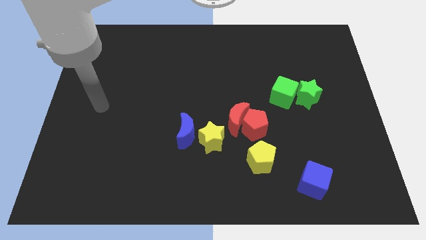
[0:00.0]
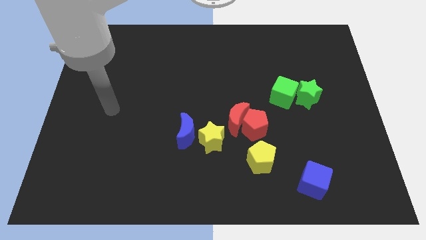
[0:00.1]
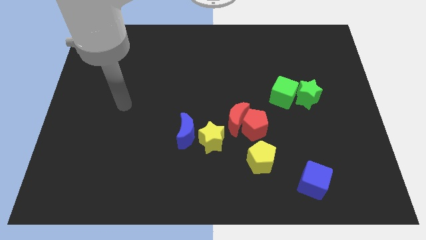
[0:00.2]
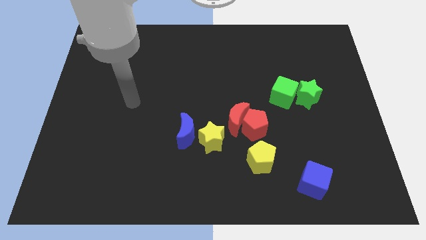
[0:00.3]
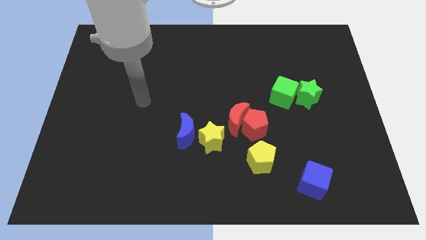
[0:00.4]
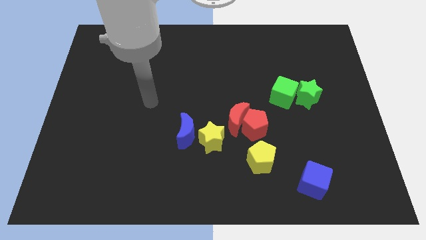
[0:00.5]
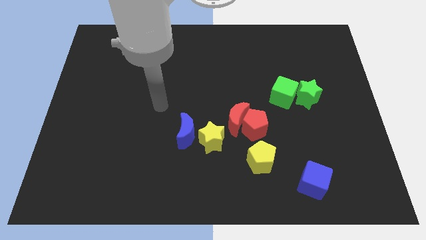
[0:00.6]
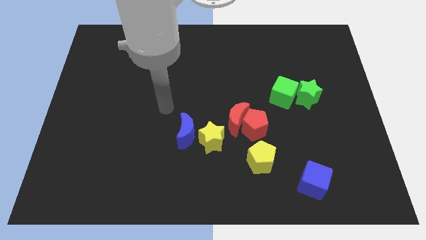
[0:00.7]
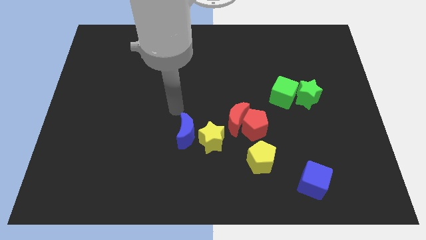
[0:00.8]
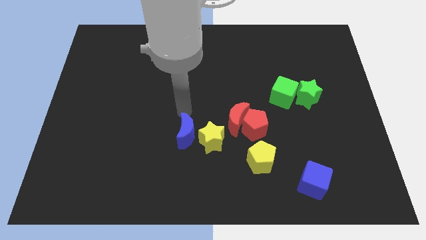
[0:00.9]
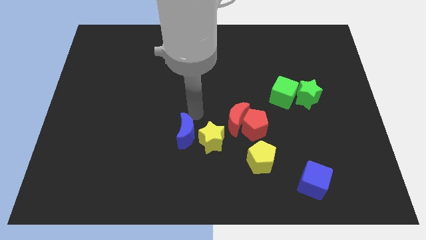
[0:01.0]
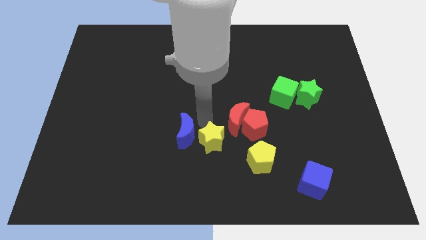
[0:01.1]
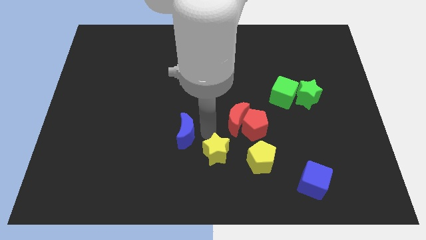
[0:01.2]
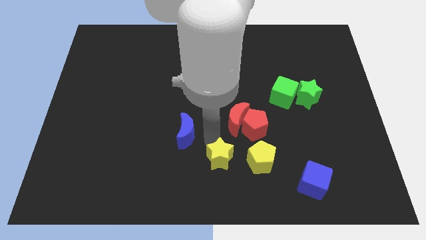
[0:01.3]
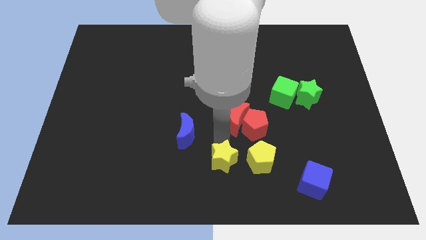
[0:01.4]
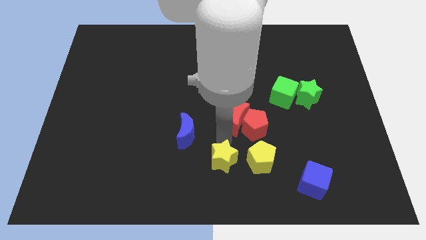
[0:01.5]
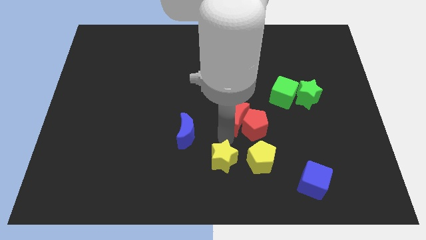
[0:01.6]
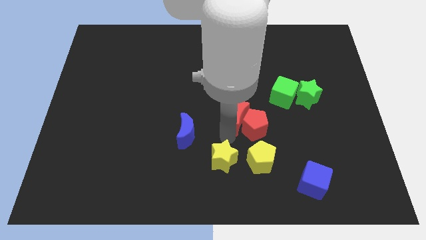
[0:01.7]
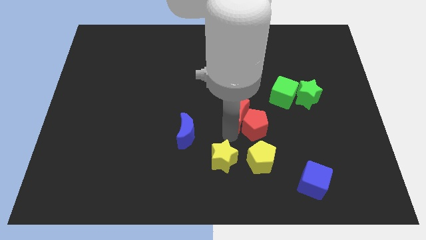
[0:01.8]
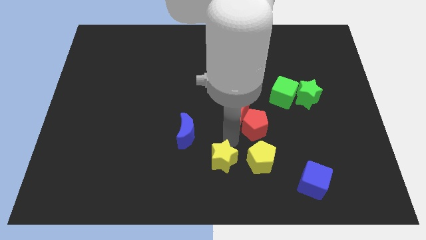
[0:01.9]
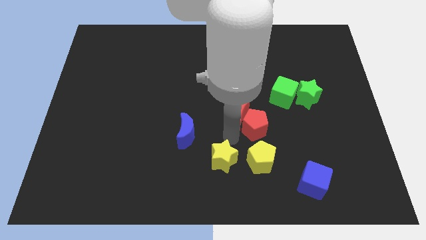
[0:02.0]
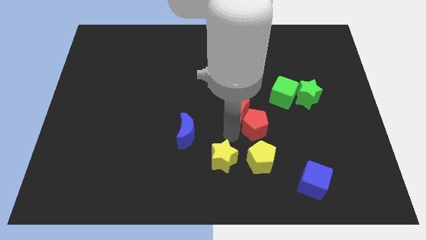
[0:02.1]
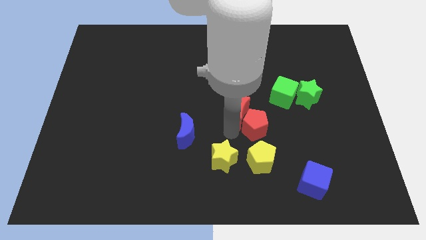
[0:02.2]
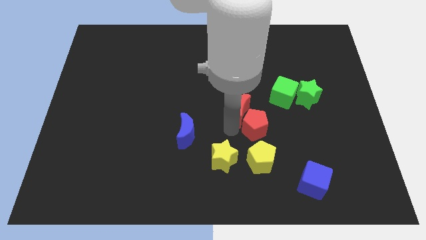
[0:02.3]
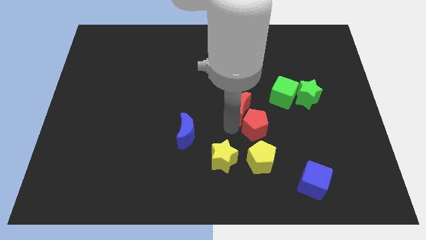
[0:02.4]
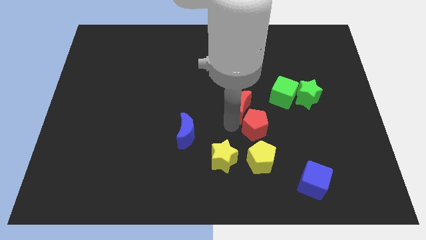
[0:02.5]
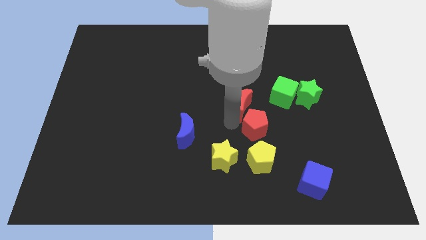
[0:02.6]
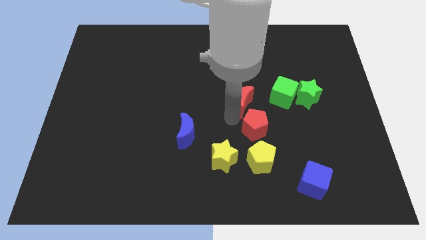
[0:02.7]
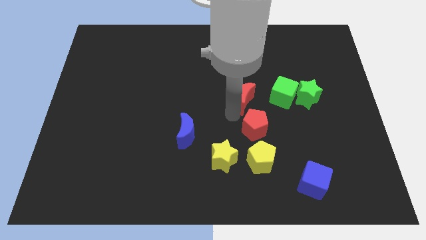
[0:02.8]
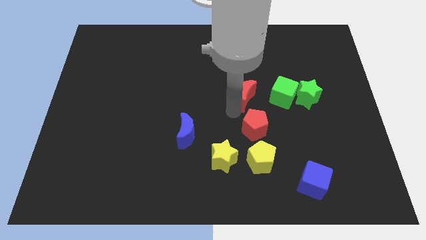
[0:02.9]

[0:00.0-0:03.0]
slightly move the red moon up

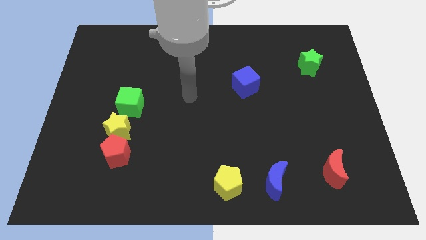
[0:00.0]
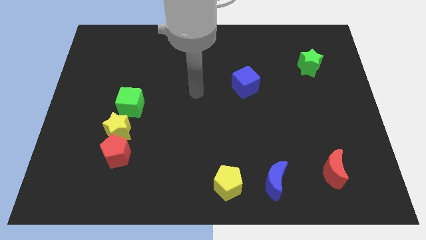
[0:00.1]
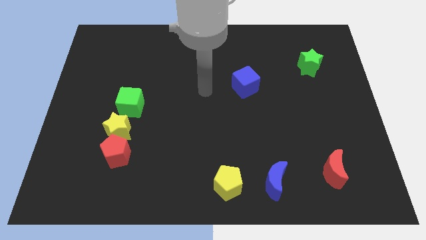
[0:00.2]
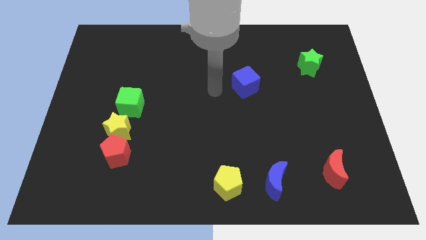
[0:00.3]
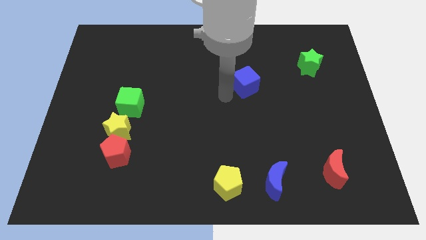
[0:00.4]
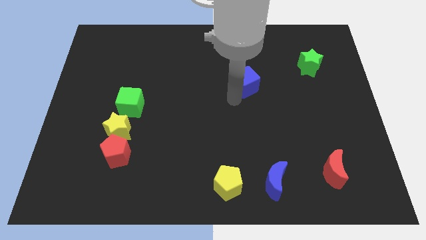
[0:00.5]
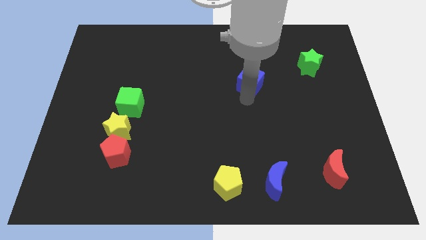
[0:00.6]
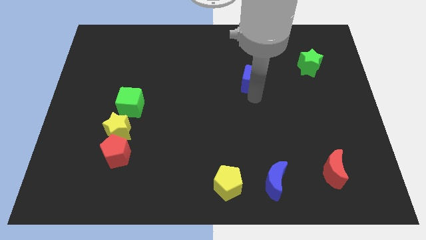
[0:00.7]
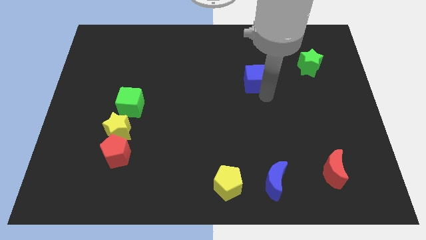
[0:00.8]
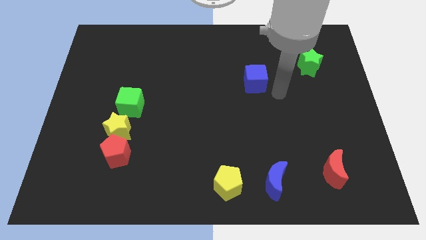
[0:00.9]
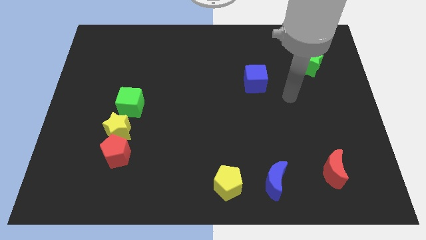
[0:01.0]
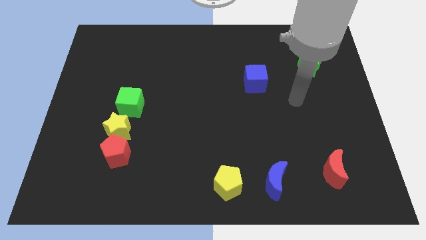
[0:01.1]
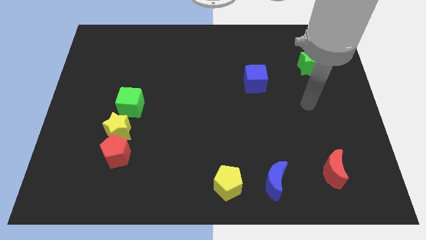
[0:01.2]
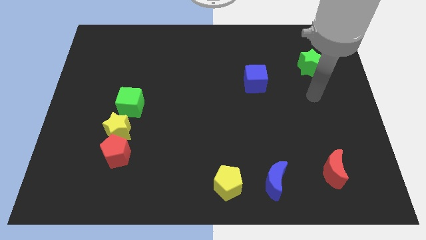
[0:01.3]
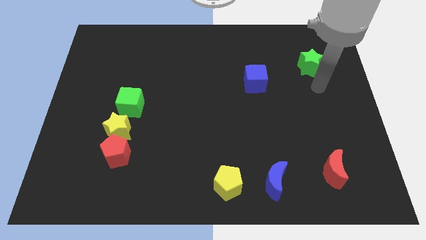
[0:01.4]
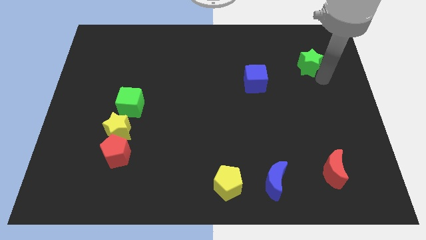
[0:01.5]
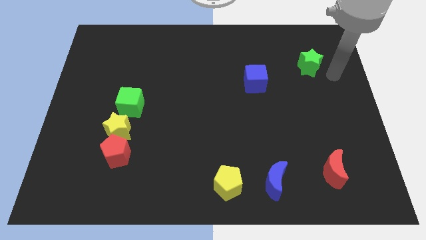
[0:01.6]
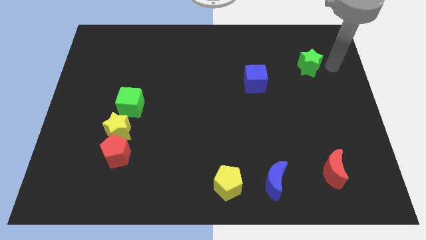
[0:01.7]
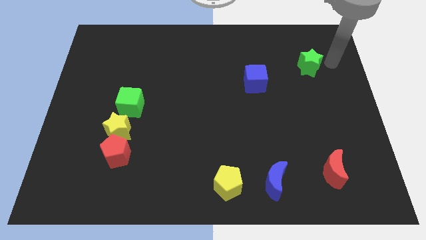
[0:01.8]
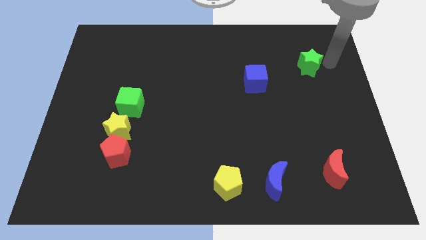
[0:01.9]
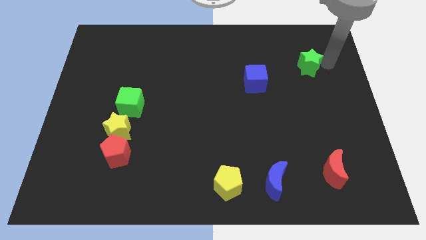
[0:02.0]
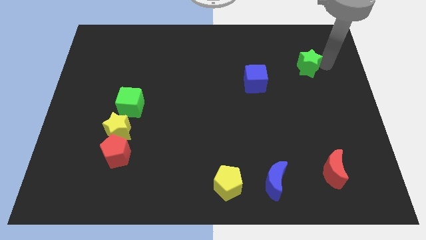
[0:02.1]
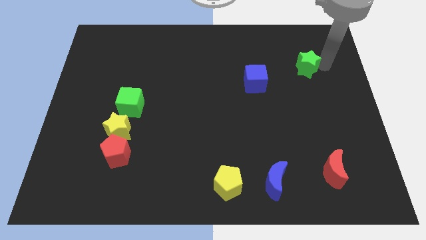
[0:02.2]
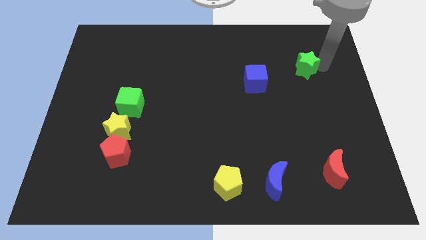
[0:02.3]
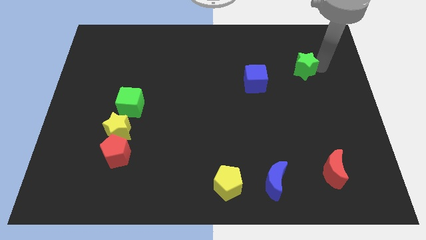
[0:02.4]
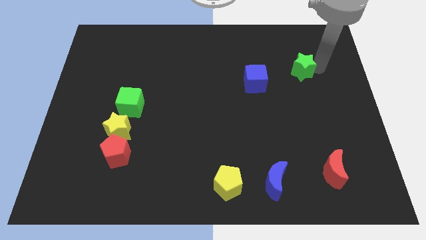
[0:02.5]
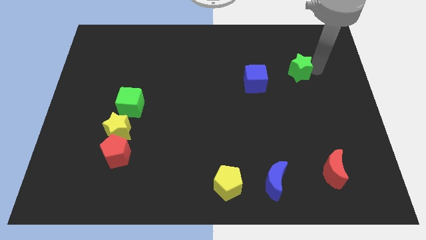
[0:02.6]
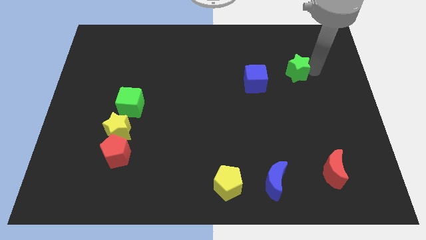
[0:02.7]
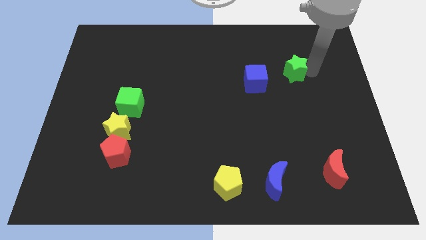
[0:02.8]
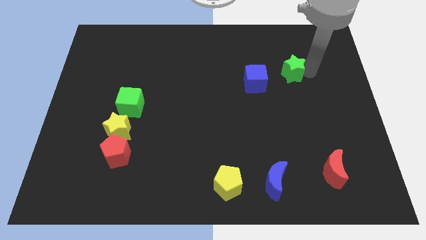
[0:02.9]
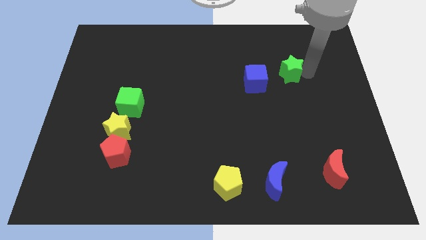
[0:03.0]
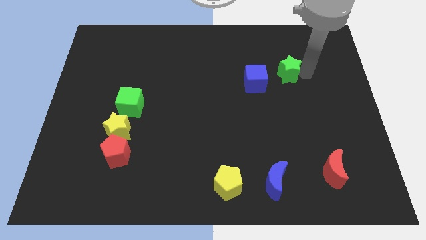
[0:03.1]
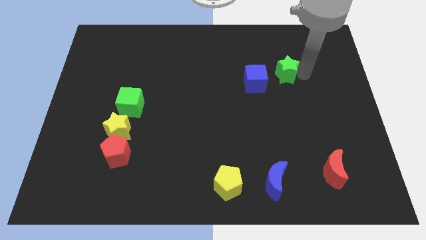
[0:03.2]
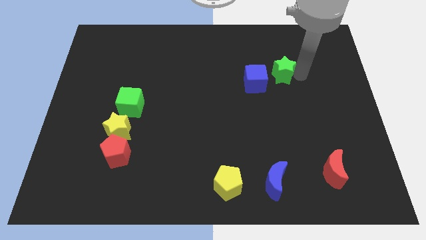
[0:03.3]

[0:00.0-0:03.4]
slide the green star slightly to the left

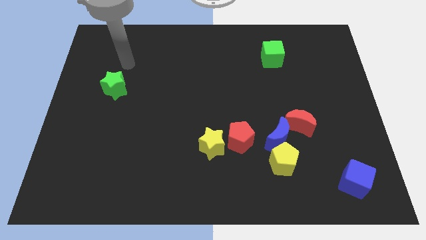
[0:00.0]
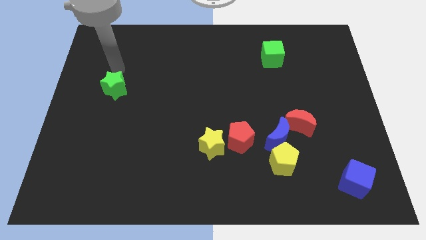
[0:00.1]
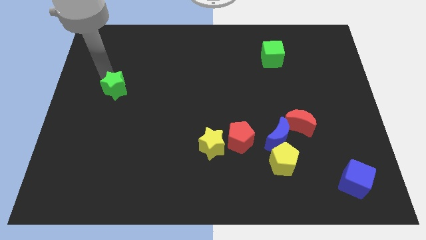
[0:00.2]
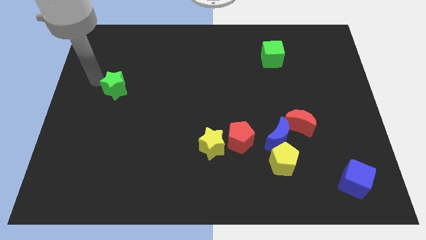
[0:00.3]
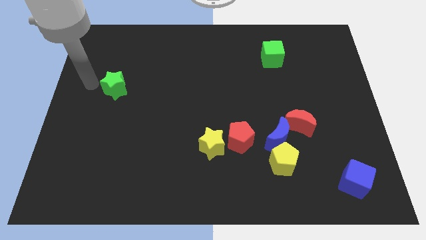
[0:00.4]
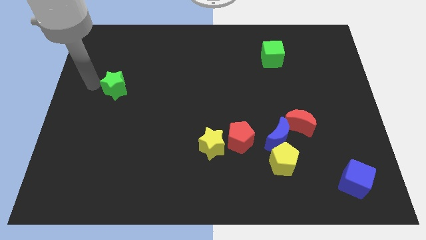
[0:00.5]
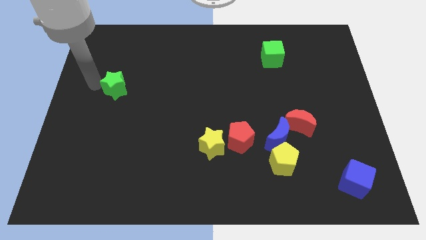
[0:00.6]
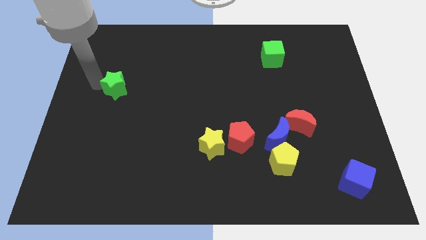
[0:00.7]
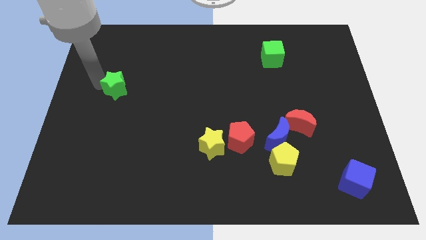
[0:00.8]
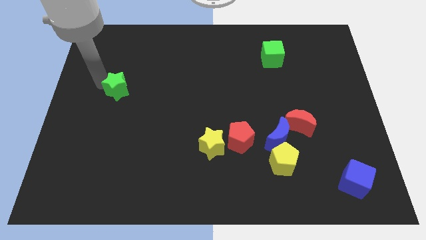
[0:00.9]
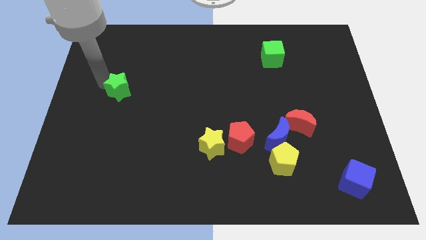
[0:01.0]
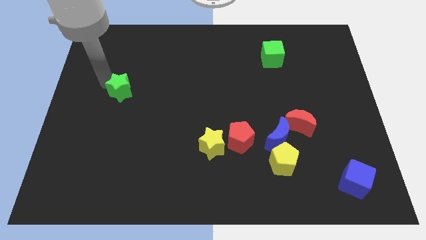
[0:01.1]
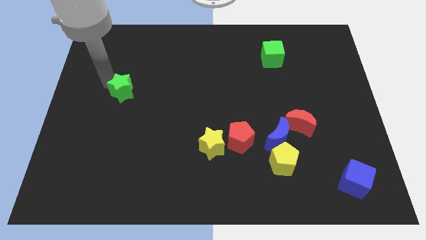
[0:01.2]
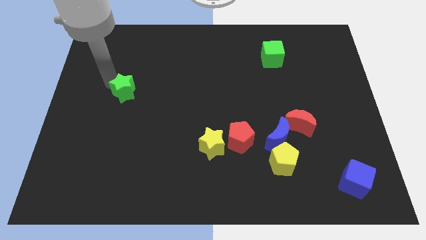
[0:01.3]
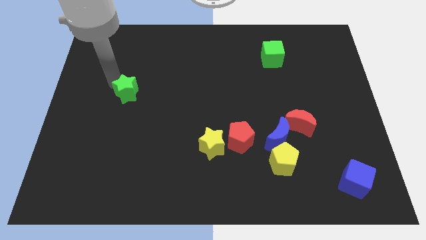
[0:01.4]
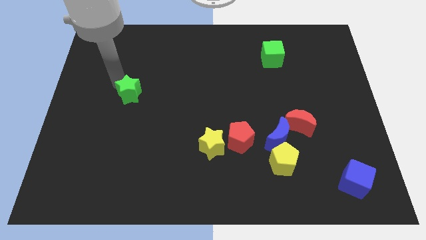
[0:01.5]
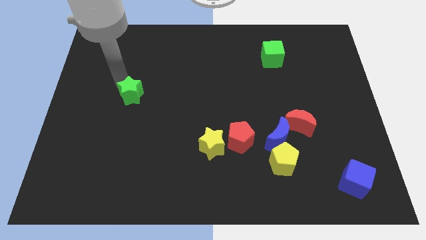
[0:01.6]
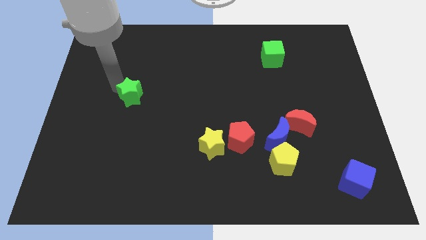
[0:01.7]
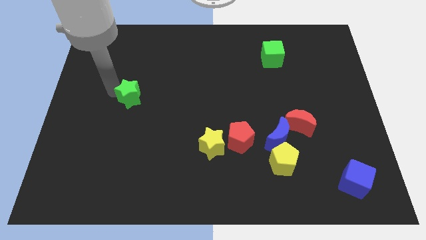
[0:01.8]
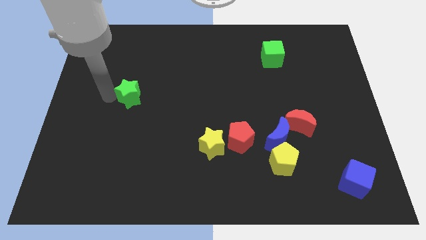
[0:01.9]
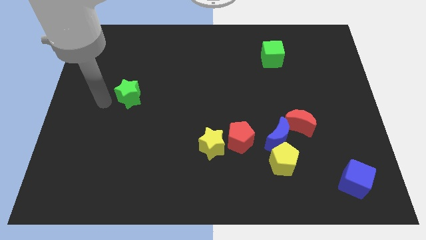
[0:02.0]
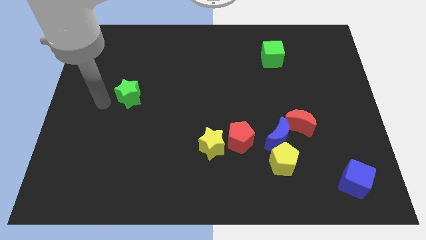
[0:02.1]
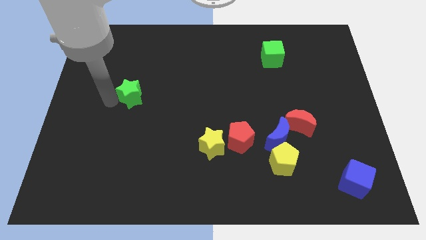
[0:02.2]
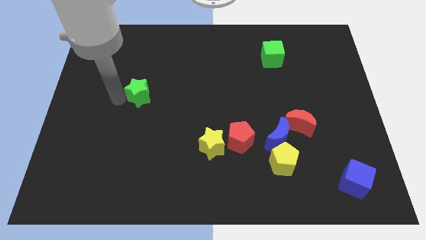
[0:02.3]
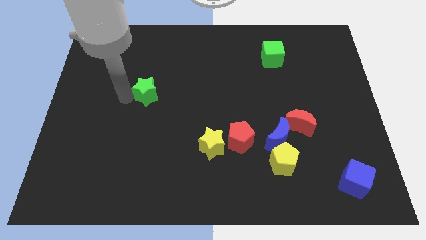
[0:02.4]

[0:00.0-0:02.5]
slightly move the green star right
